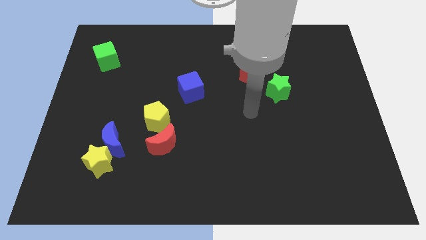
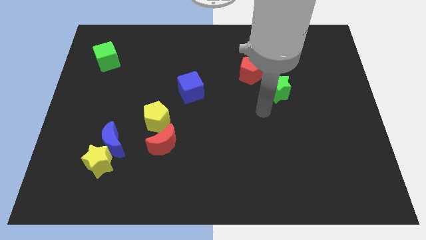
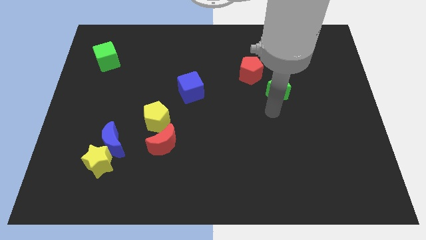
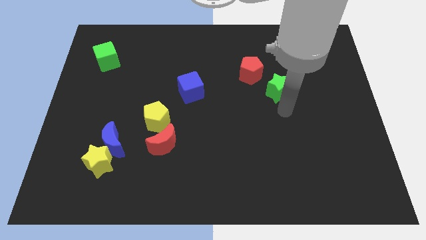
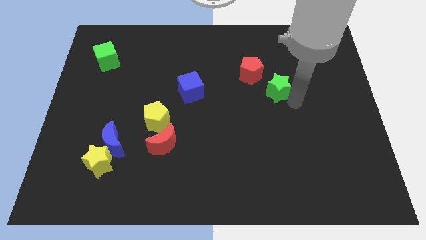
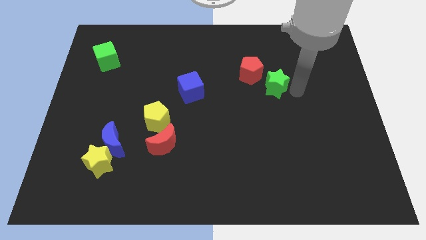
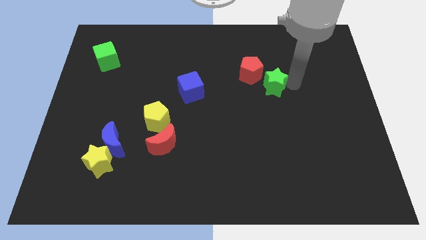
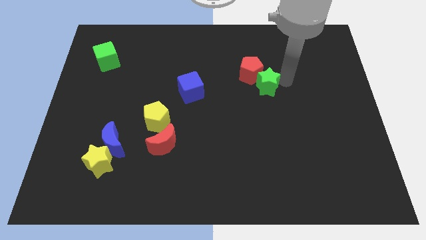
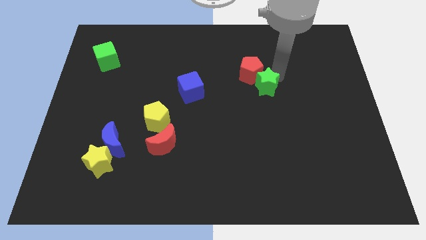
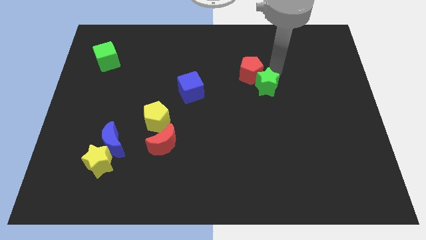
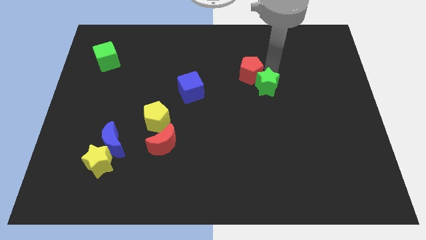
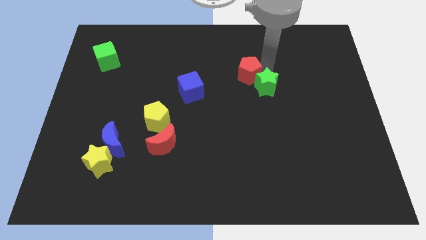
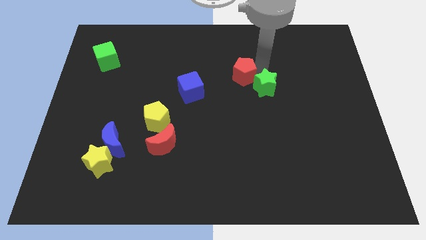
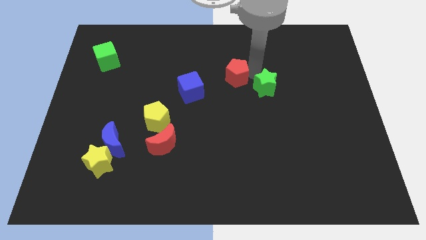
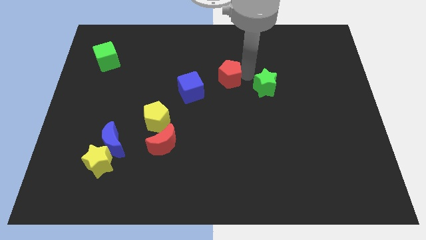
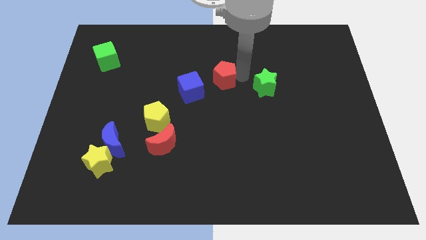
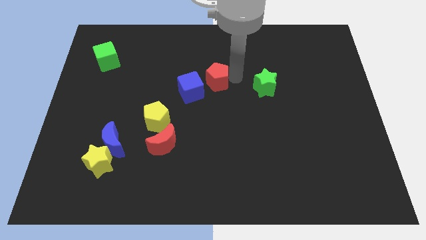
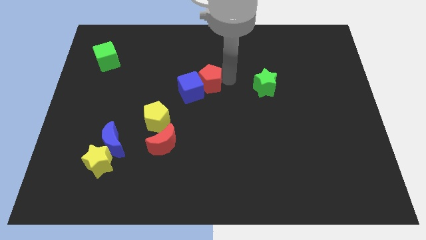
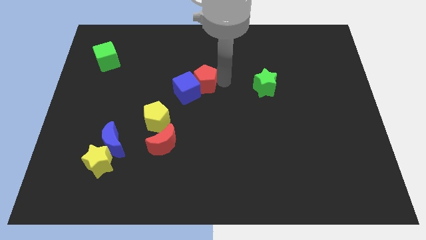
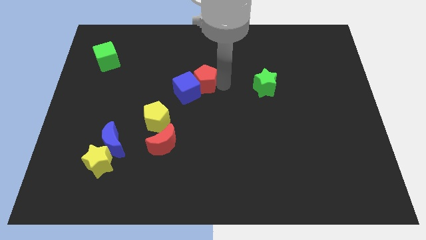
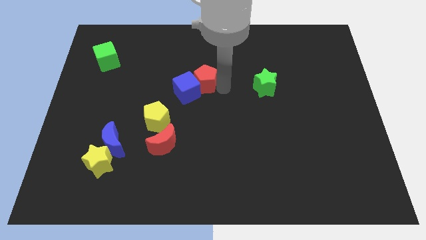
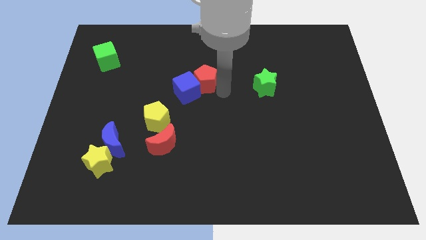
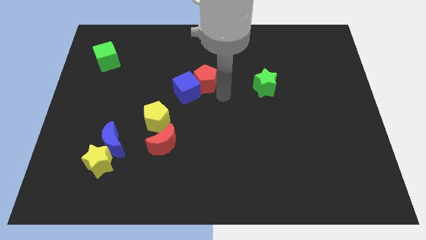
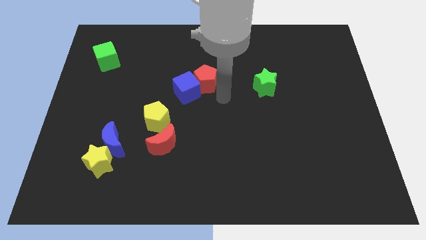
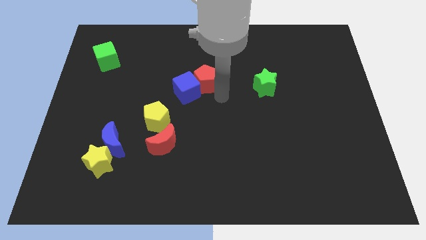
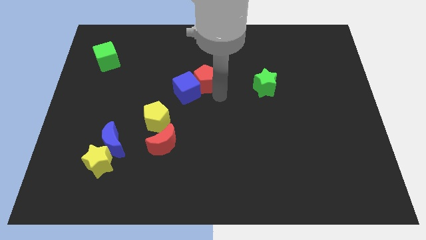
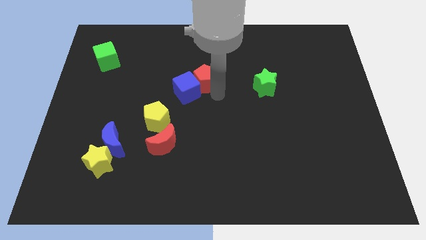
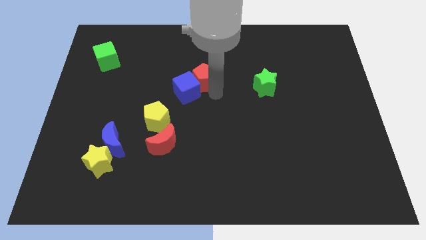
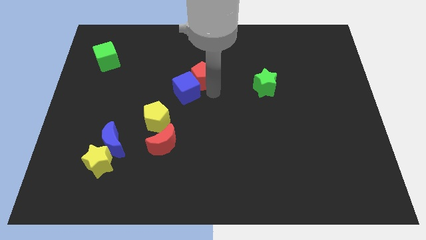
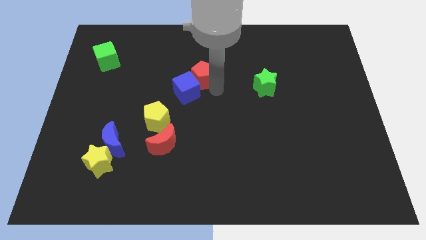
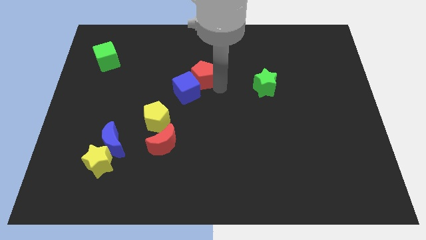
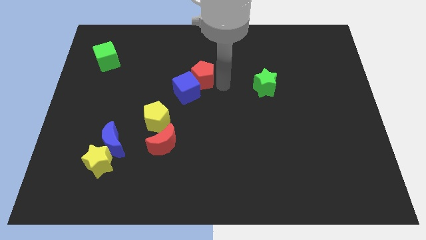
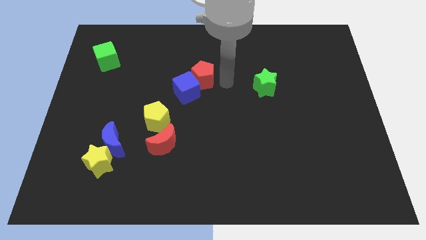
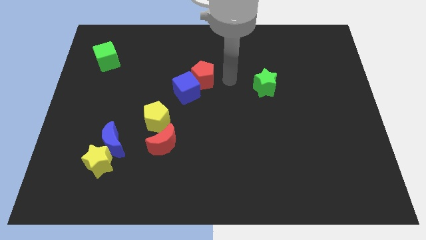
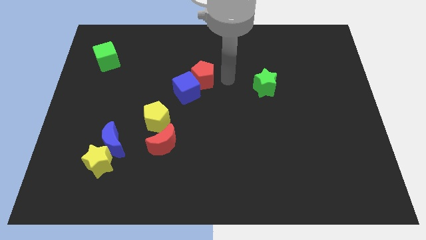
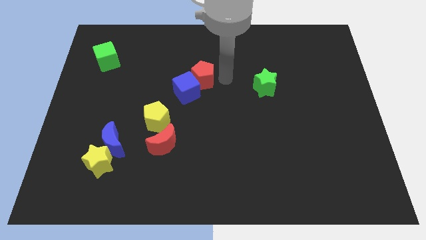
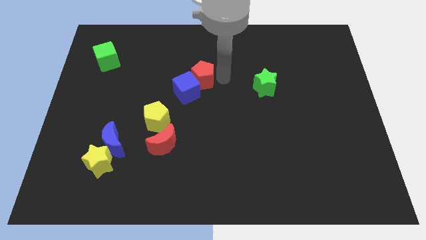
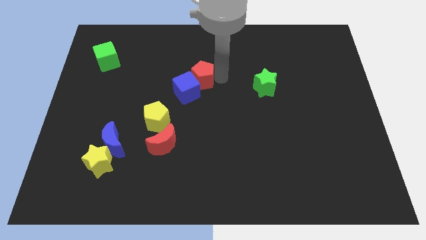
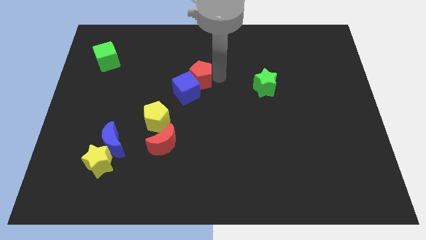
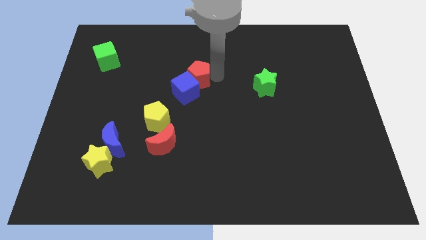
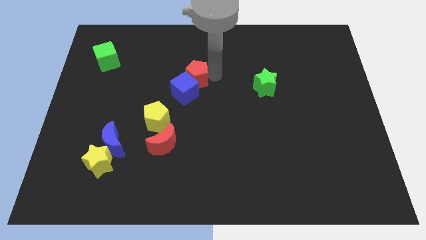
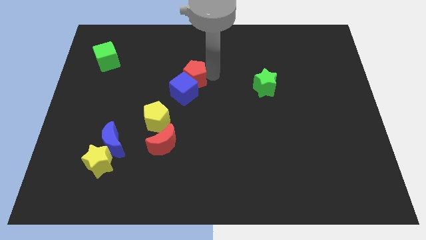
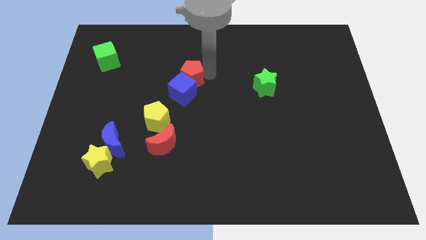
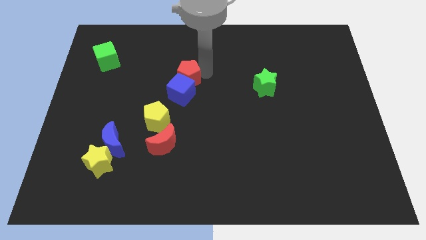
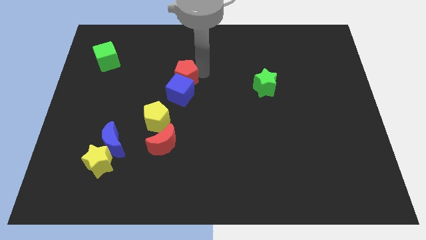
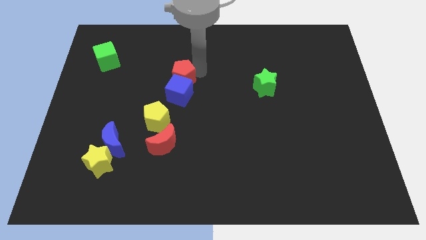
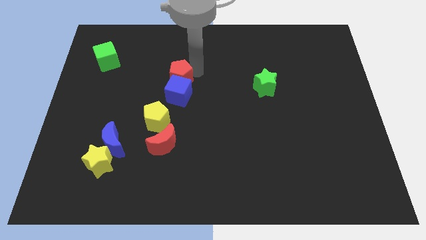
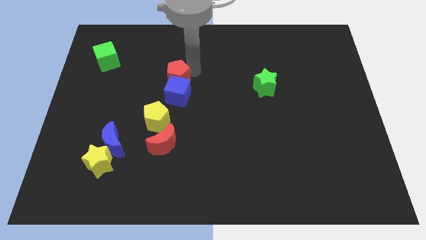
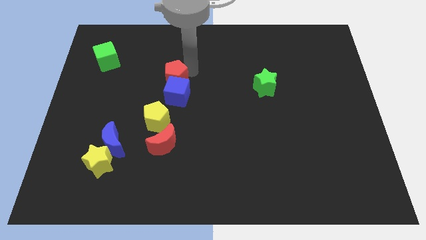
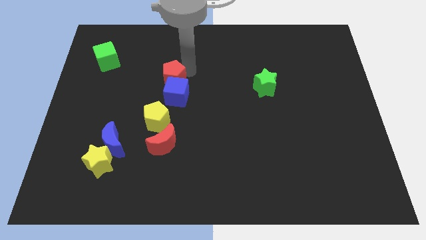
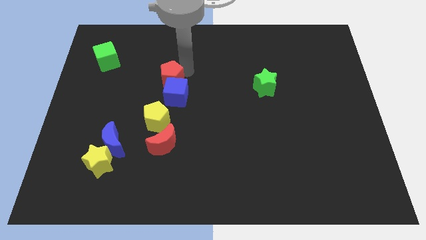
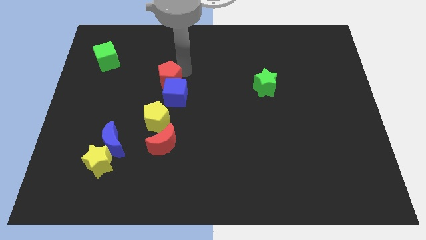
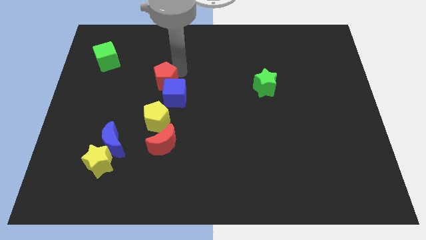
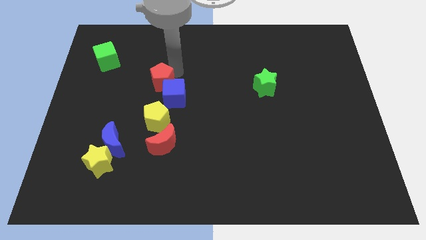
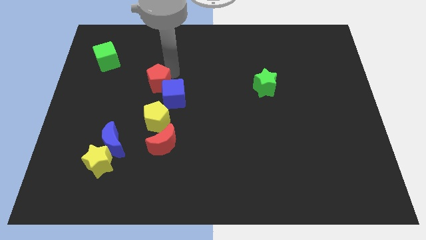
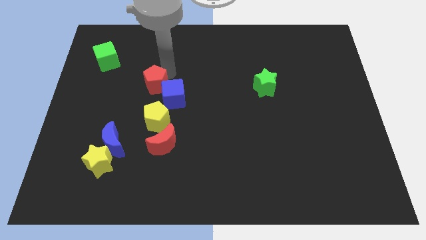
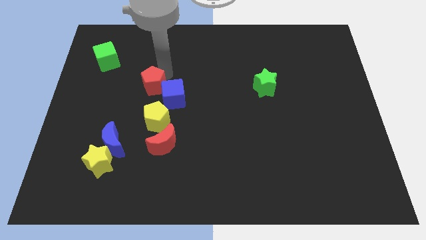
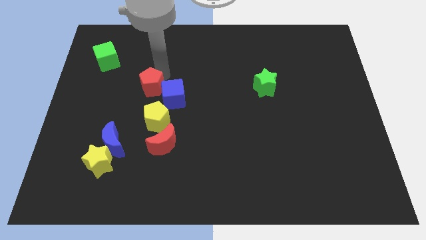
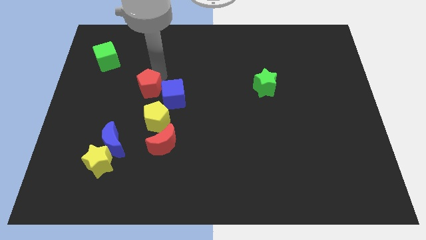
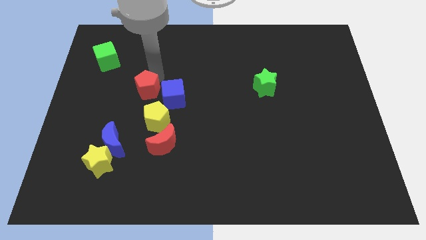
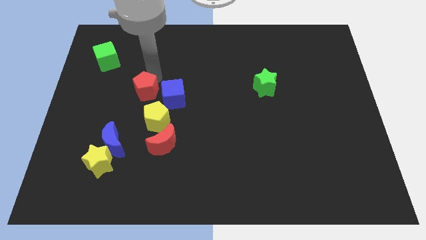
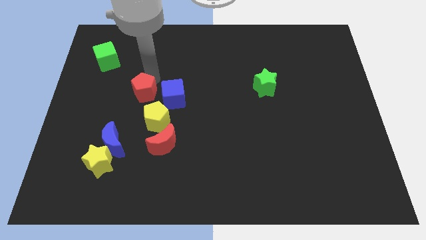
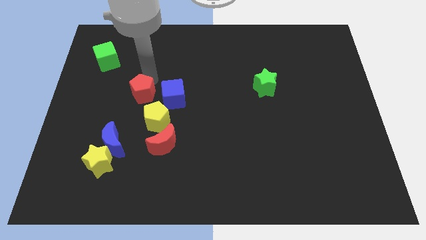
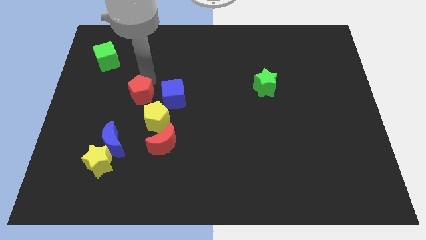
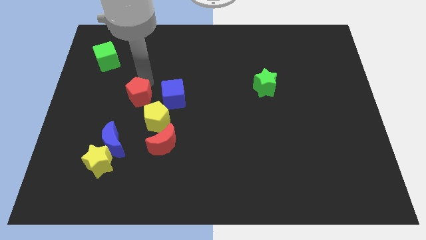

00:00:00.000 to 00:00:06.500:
push the red pentagon to the top side of the blue moon
